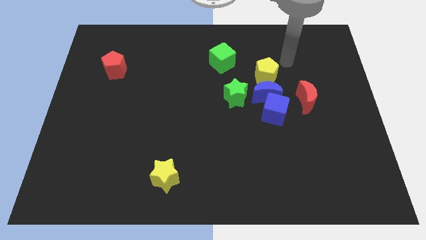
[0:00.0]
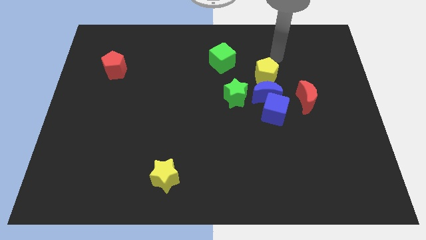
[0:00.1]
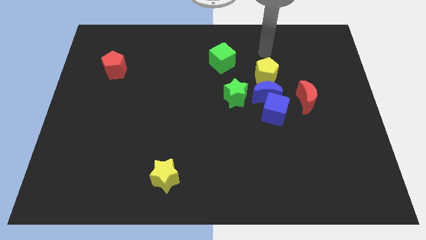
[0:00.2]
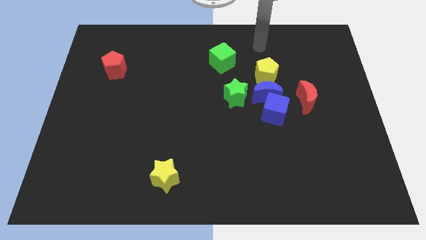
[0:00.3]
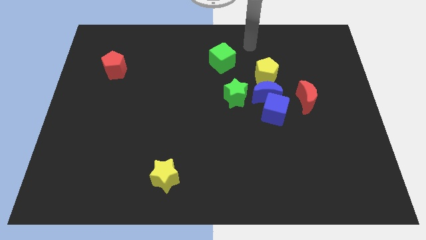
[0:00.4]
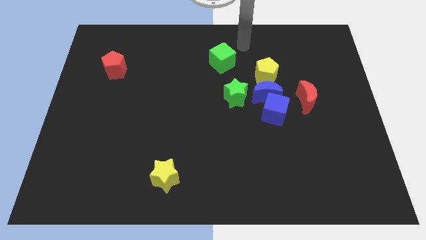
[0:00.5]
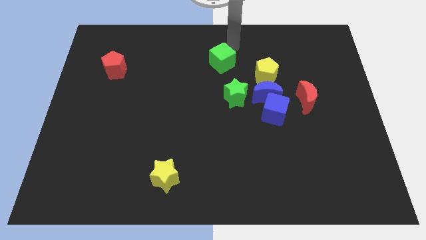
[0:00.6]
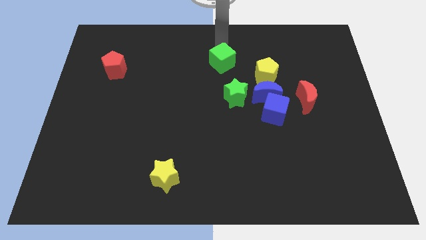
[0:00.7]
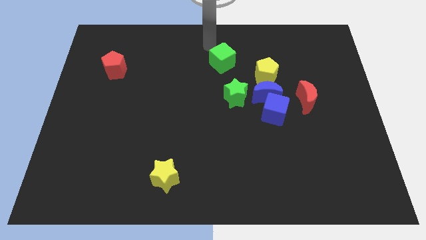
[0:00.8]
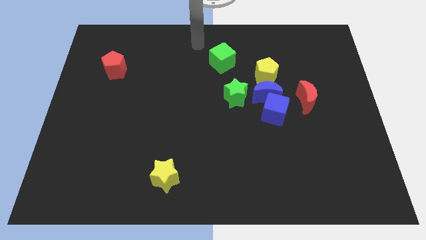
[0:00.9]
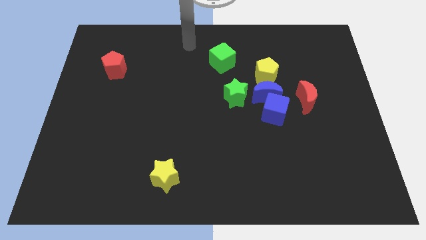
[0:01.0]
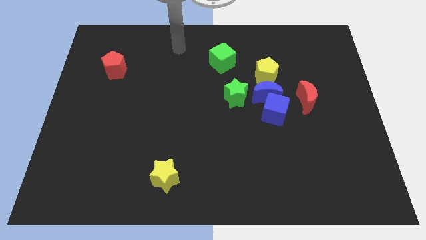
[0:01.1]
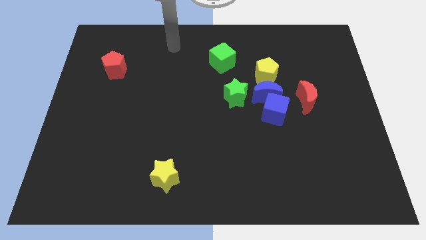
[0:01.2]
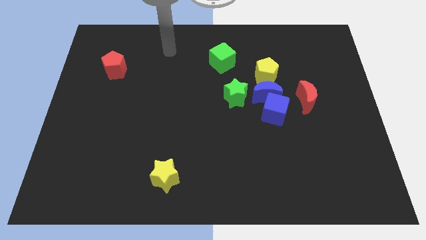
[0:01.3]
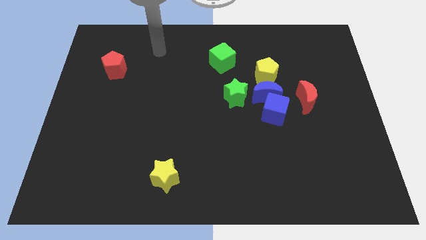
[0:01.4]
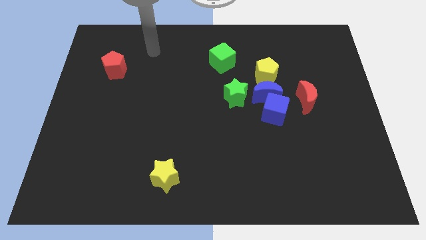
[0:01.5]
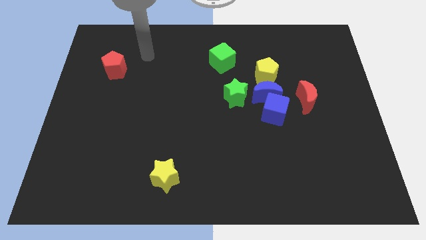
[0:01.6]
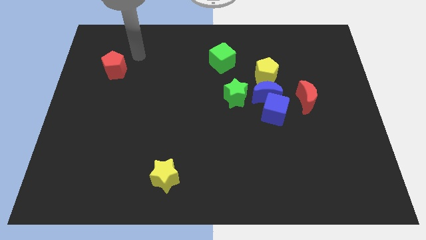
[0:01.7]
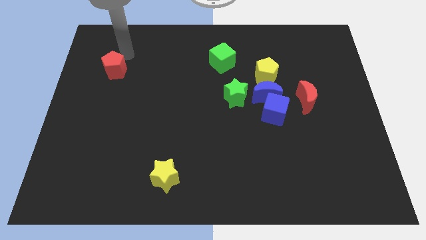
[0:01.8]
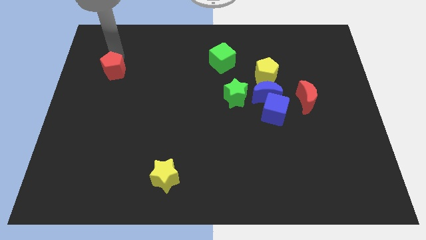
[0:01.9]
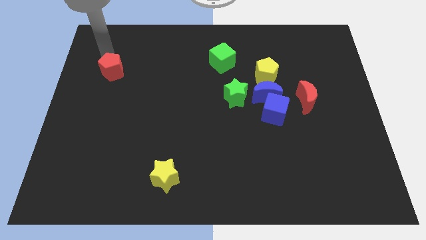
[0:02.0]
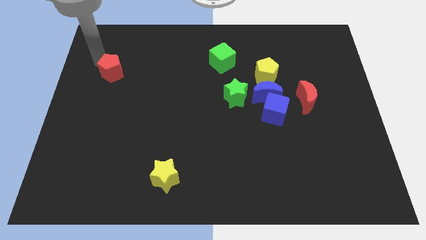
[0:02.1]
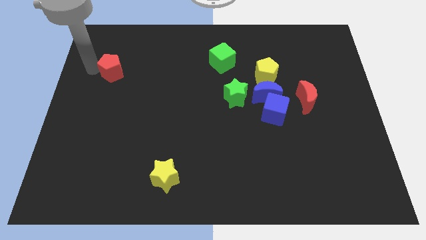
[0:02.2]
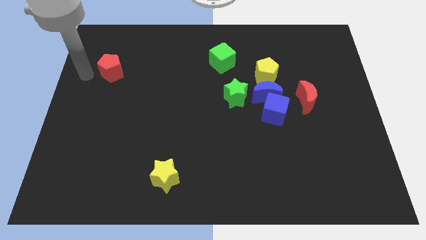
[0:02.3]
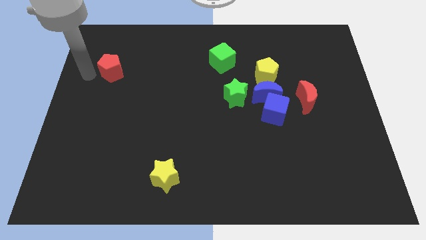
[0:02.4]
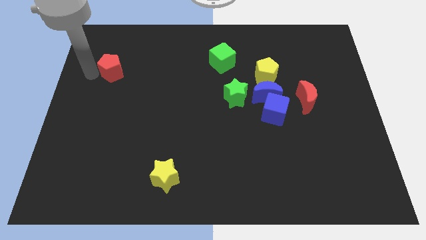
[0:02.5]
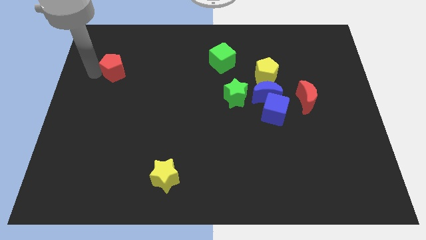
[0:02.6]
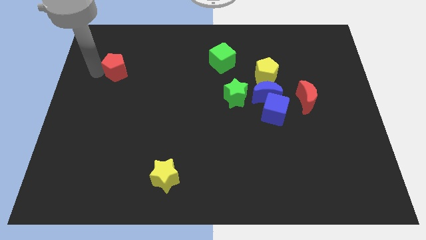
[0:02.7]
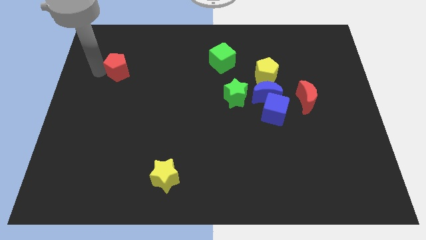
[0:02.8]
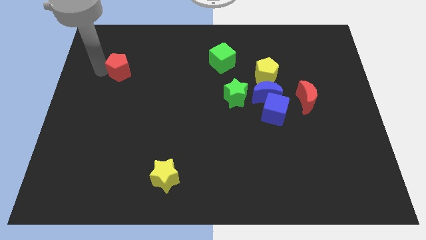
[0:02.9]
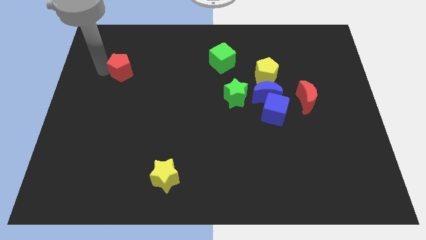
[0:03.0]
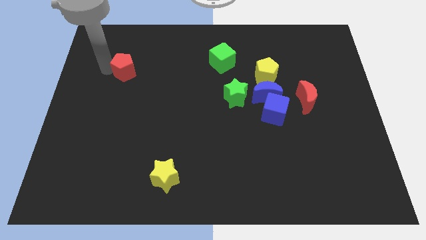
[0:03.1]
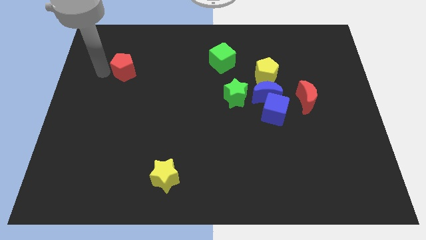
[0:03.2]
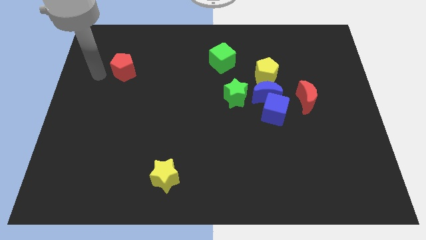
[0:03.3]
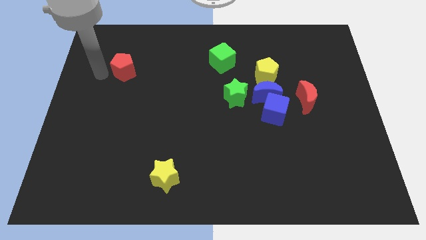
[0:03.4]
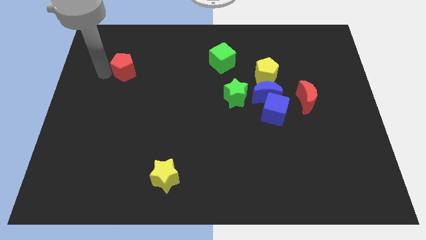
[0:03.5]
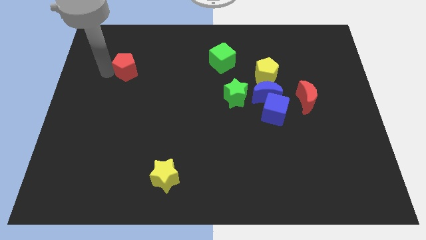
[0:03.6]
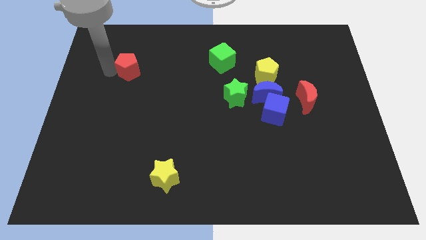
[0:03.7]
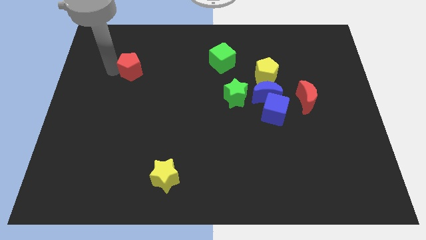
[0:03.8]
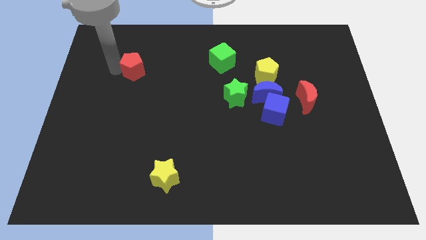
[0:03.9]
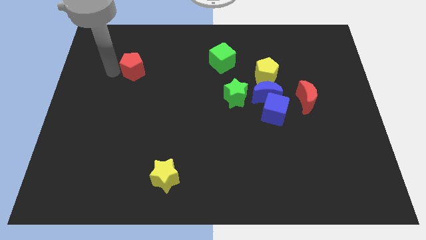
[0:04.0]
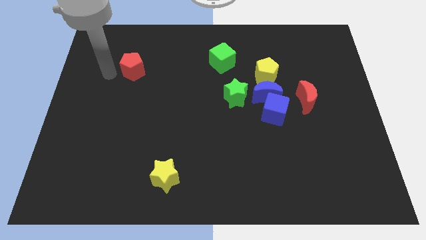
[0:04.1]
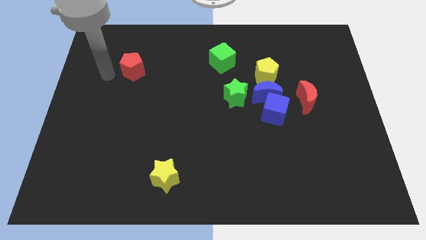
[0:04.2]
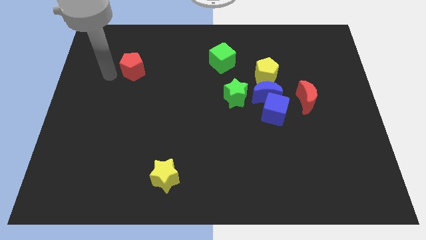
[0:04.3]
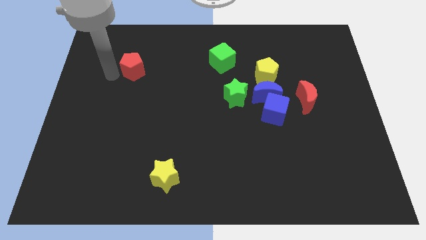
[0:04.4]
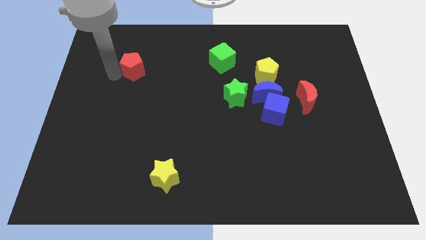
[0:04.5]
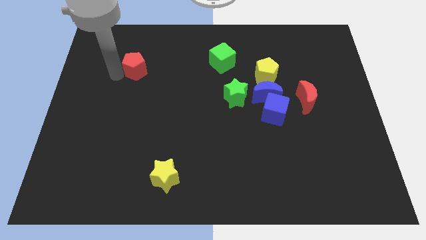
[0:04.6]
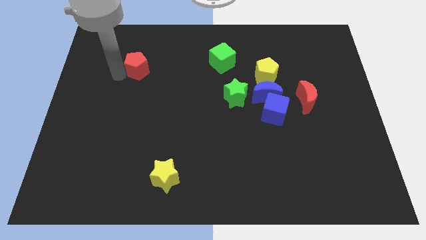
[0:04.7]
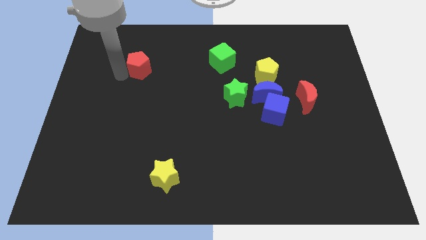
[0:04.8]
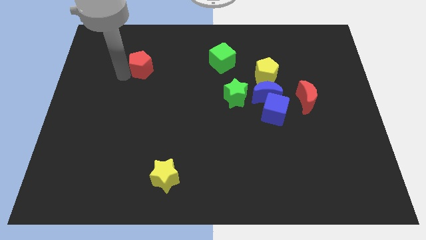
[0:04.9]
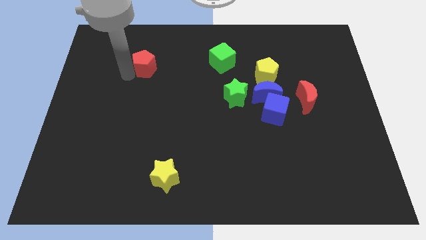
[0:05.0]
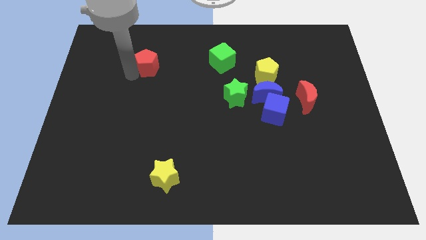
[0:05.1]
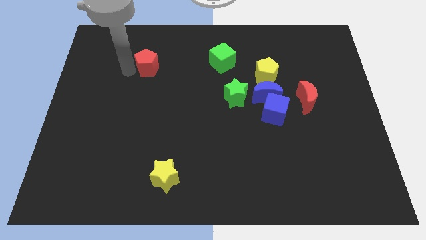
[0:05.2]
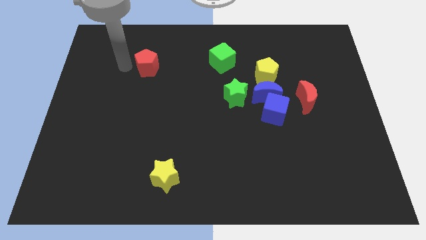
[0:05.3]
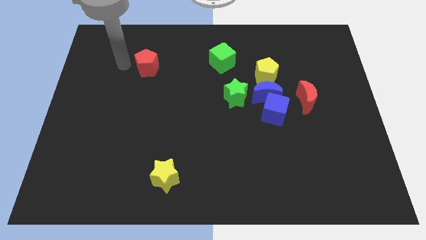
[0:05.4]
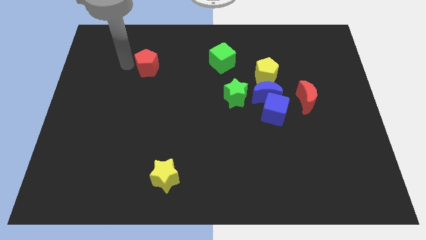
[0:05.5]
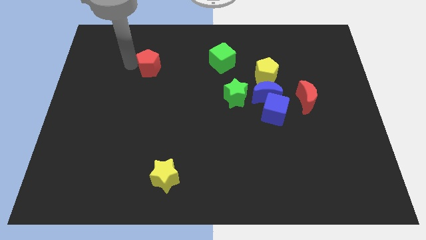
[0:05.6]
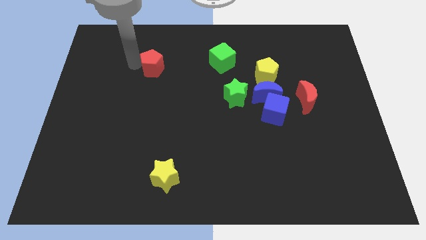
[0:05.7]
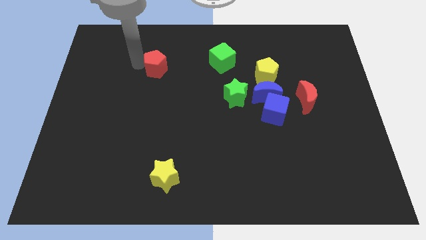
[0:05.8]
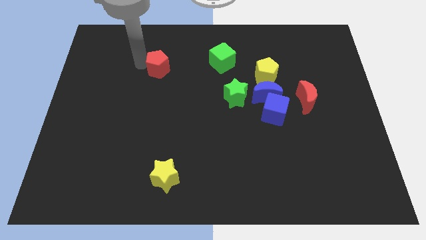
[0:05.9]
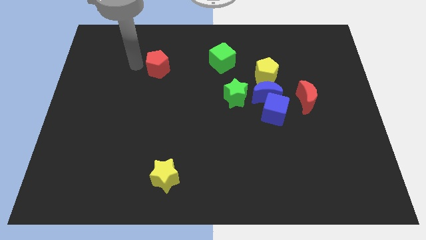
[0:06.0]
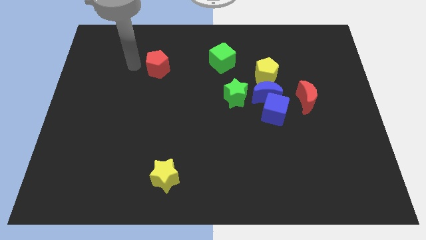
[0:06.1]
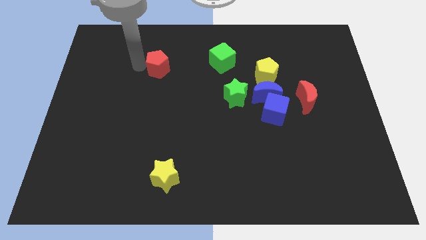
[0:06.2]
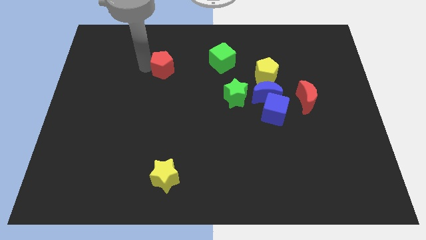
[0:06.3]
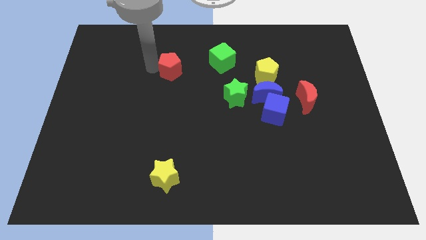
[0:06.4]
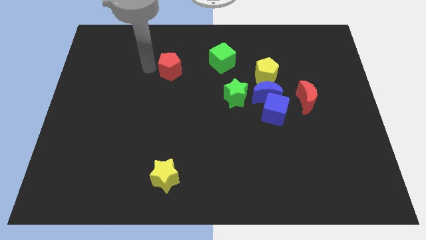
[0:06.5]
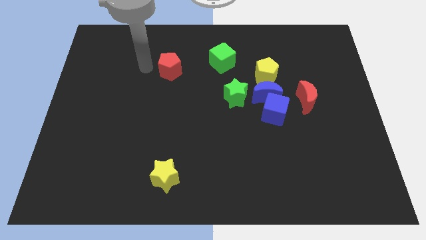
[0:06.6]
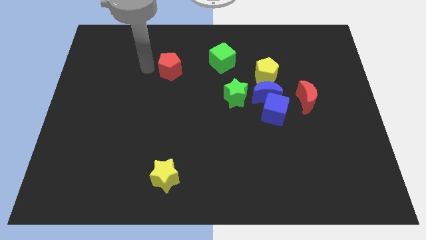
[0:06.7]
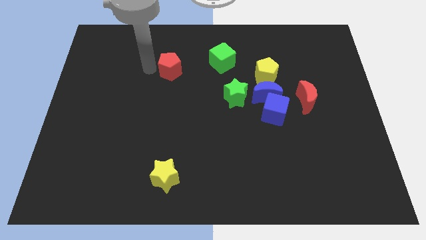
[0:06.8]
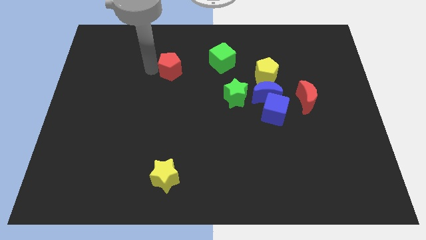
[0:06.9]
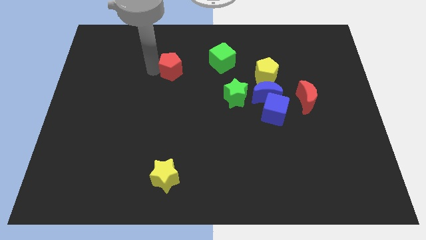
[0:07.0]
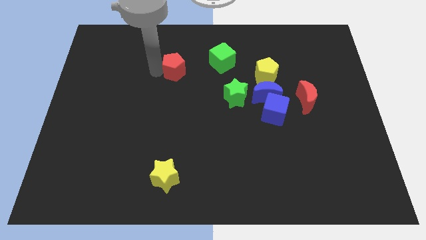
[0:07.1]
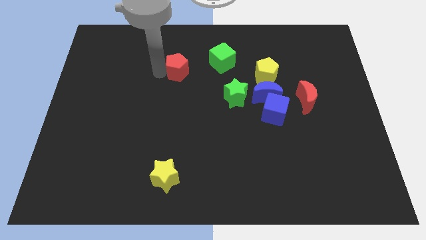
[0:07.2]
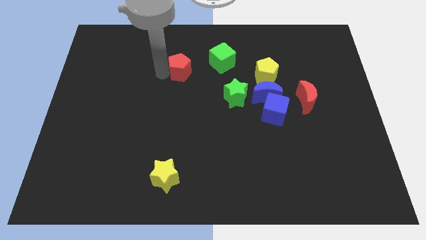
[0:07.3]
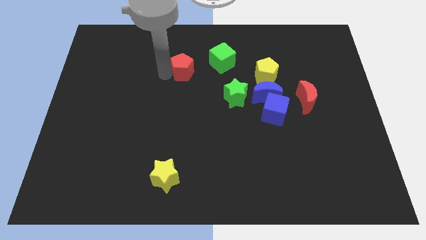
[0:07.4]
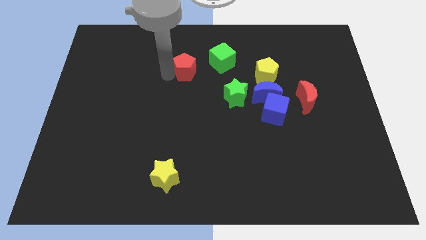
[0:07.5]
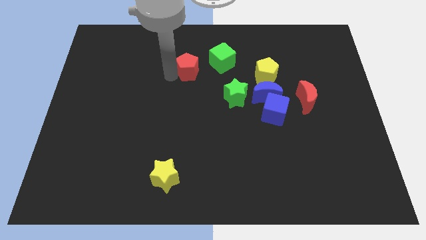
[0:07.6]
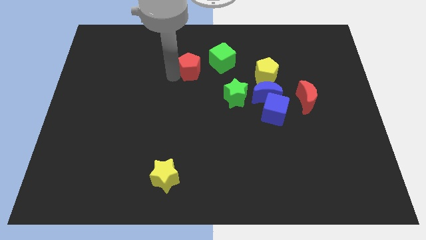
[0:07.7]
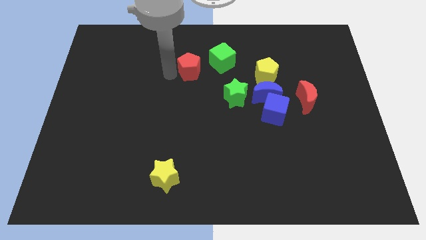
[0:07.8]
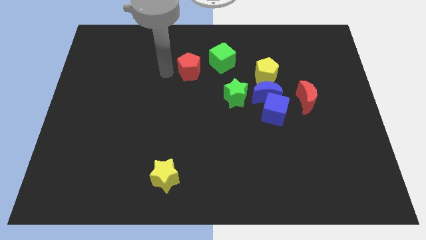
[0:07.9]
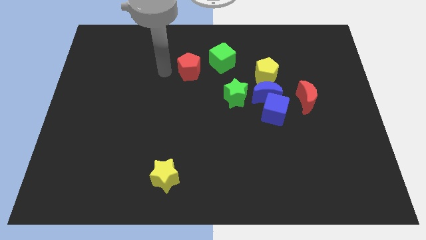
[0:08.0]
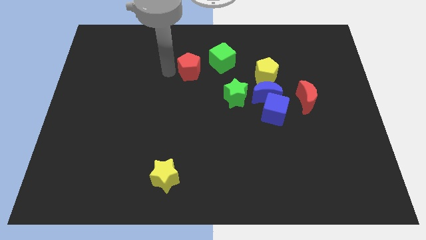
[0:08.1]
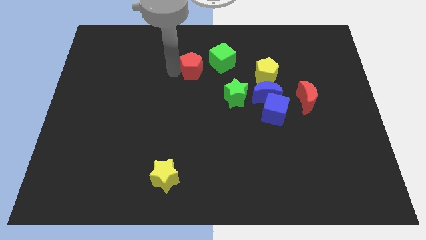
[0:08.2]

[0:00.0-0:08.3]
push the red pentagon right
